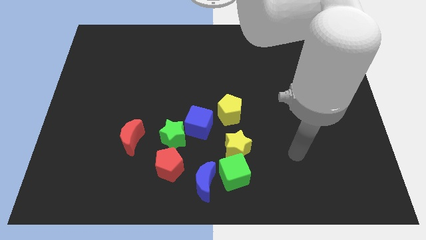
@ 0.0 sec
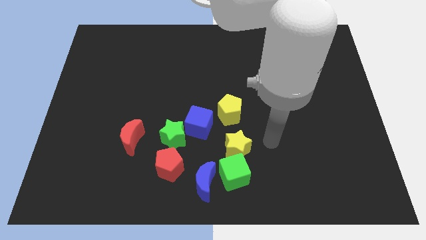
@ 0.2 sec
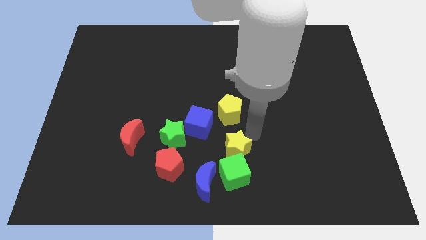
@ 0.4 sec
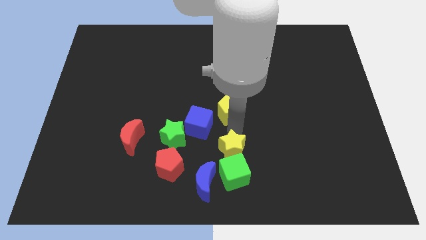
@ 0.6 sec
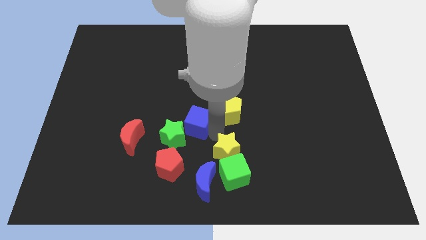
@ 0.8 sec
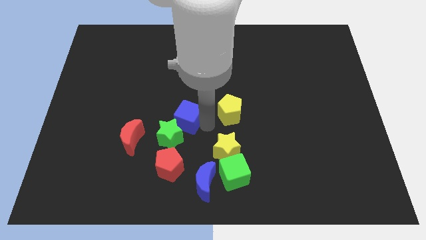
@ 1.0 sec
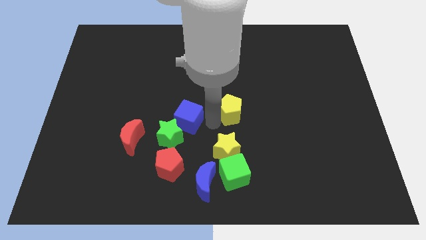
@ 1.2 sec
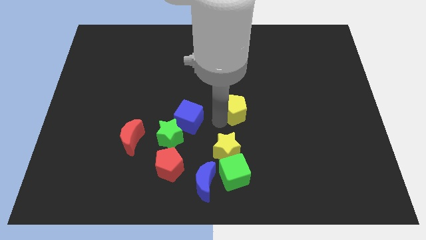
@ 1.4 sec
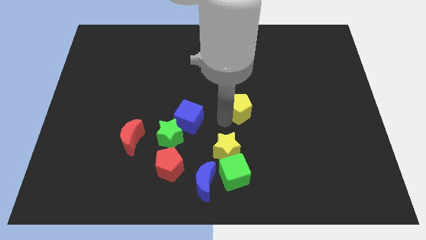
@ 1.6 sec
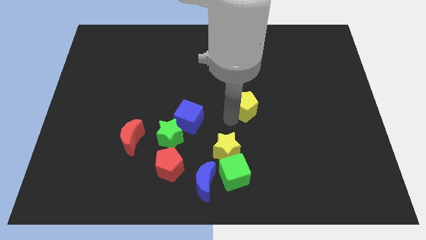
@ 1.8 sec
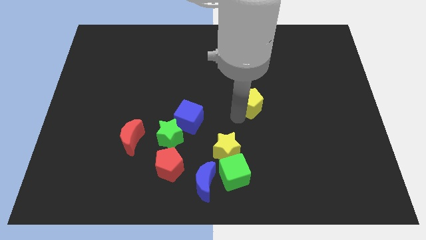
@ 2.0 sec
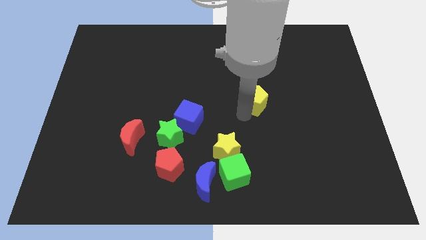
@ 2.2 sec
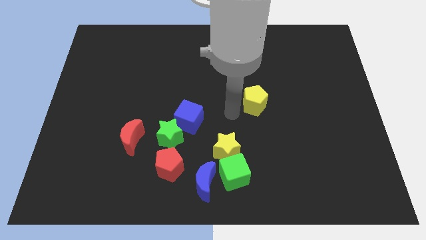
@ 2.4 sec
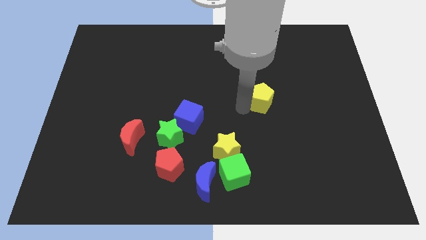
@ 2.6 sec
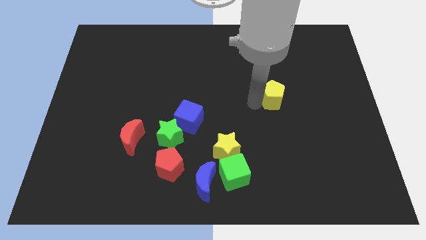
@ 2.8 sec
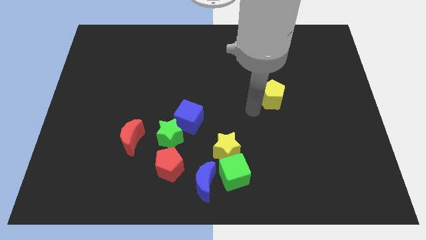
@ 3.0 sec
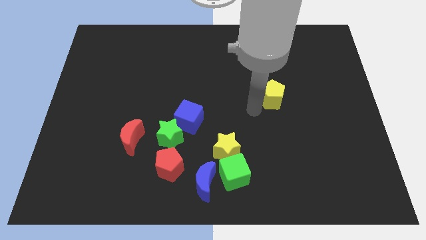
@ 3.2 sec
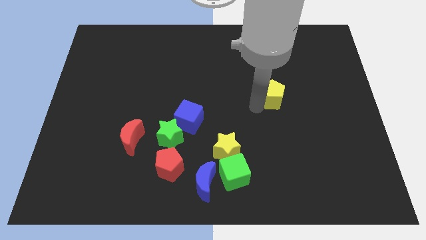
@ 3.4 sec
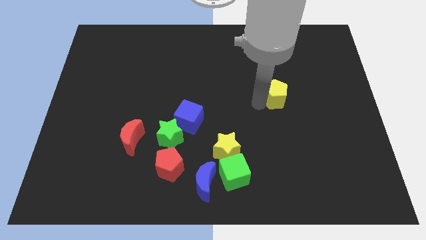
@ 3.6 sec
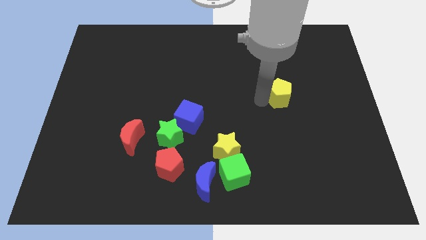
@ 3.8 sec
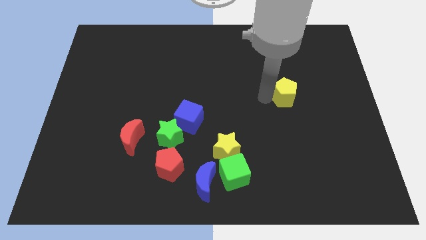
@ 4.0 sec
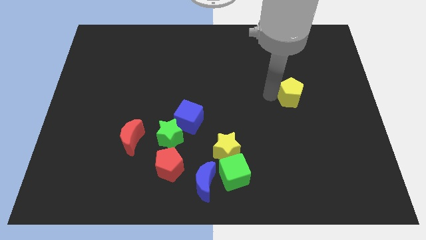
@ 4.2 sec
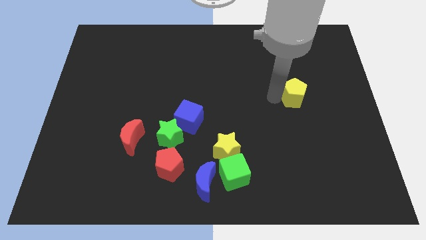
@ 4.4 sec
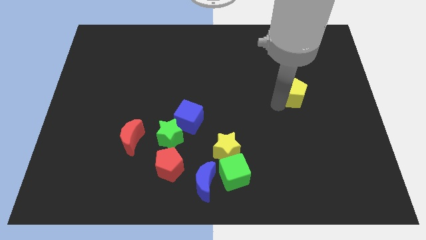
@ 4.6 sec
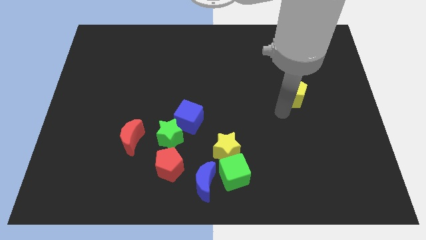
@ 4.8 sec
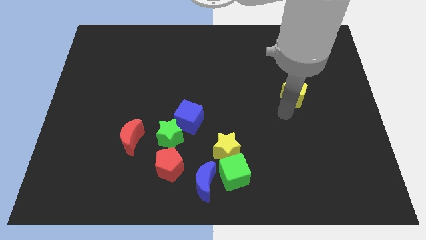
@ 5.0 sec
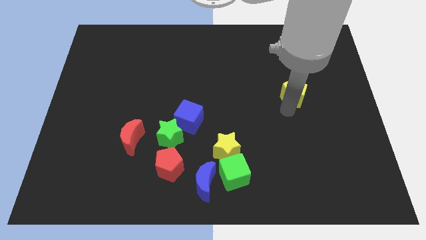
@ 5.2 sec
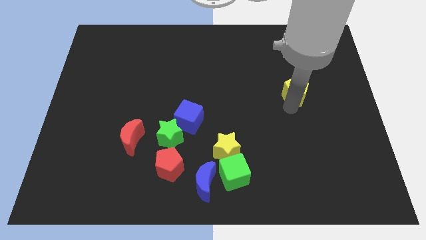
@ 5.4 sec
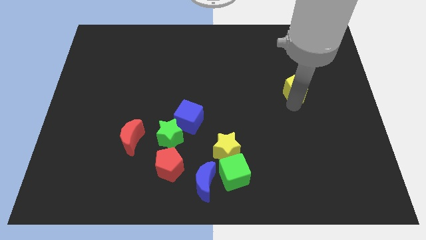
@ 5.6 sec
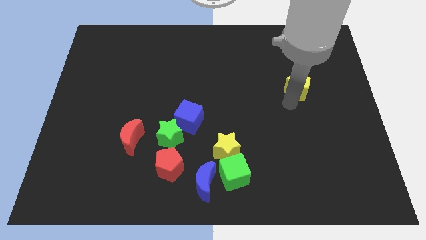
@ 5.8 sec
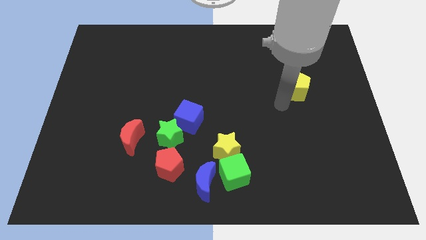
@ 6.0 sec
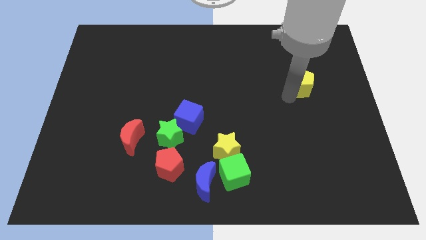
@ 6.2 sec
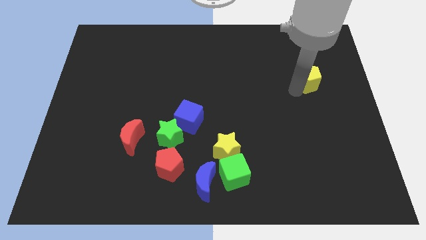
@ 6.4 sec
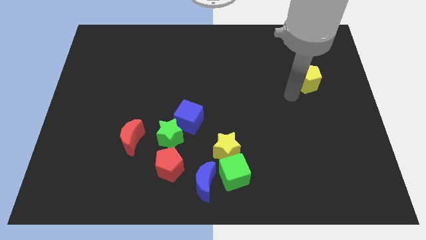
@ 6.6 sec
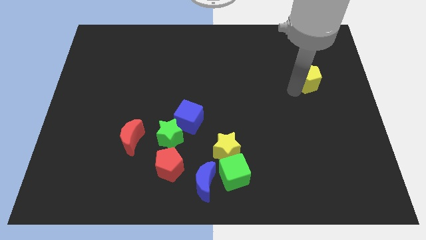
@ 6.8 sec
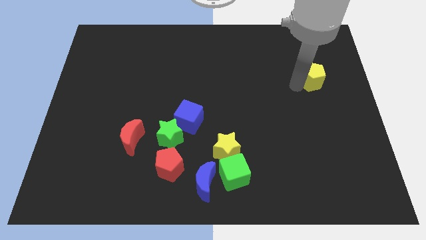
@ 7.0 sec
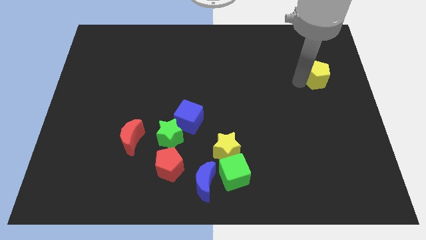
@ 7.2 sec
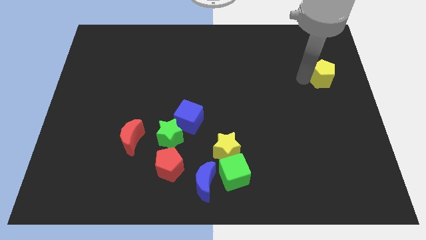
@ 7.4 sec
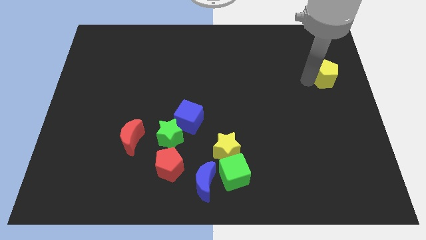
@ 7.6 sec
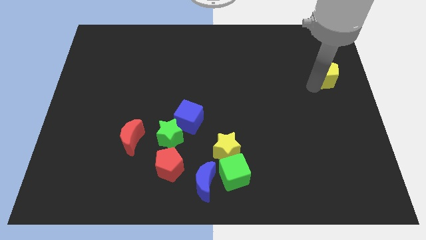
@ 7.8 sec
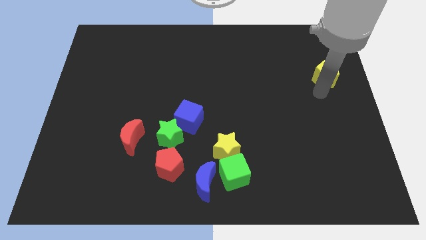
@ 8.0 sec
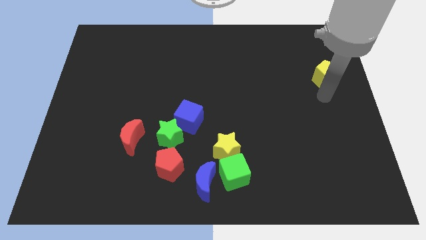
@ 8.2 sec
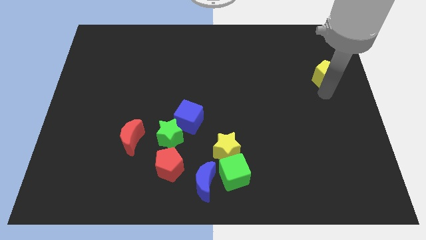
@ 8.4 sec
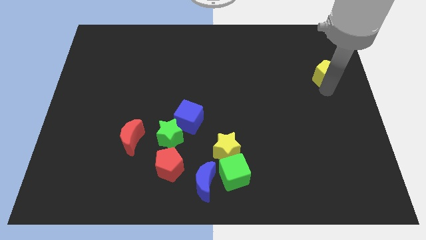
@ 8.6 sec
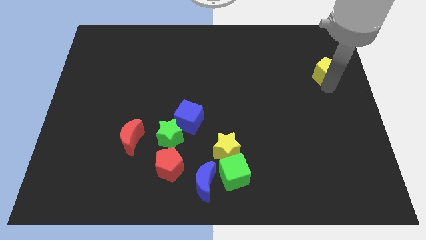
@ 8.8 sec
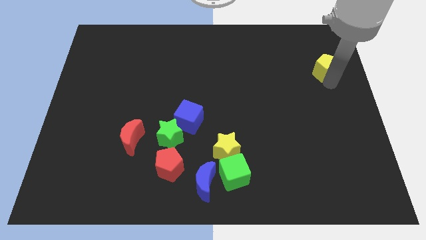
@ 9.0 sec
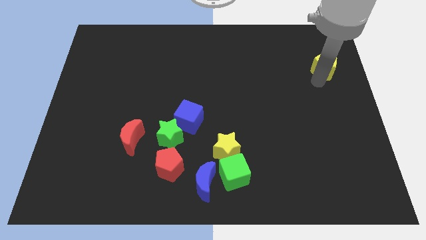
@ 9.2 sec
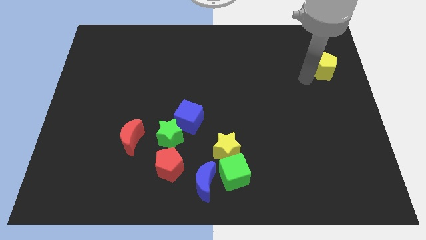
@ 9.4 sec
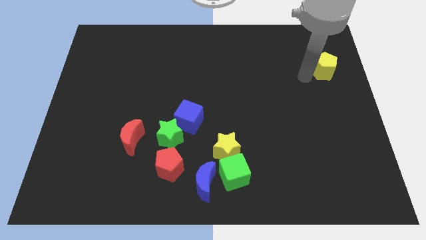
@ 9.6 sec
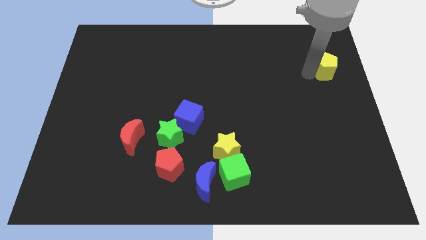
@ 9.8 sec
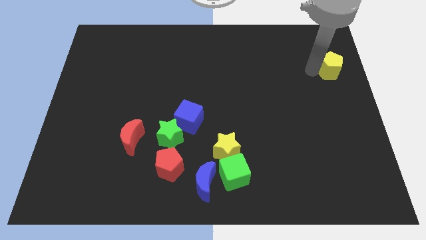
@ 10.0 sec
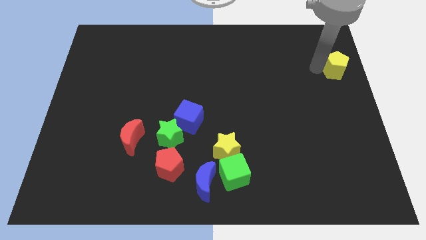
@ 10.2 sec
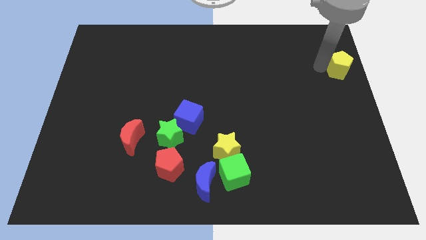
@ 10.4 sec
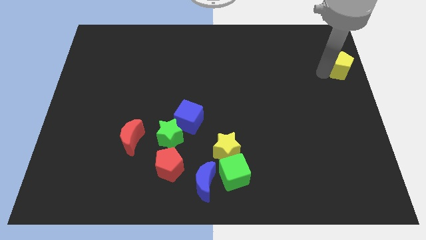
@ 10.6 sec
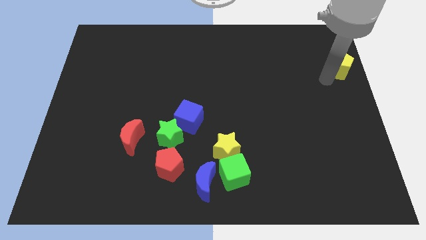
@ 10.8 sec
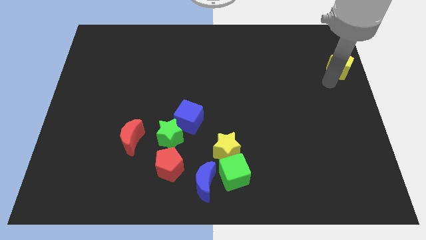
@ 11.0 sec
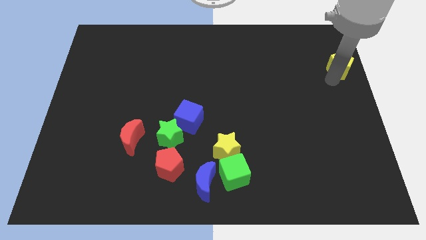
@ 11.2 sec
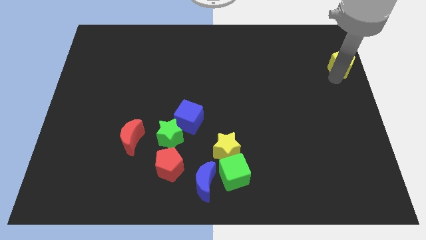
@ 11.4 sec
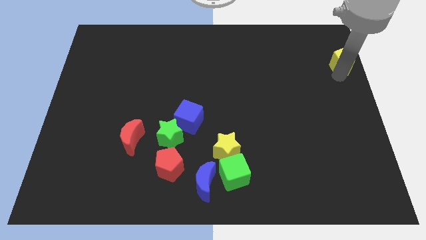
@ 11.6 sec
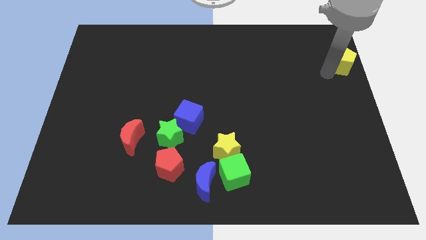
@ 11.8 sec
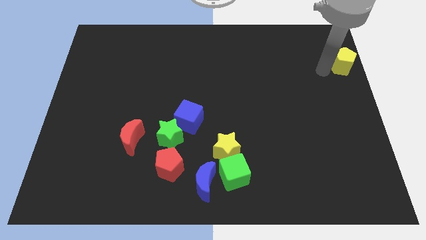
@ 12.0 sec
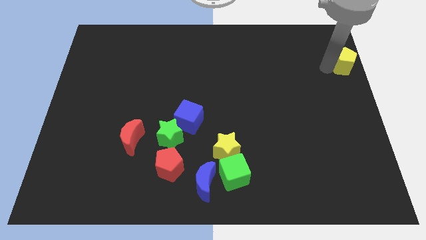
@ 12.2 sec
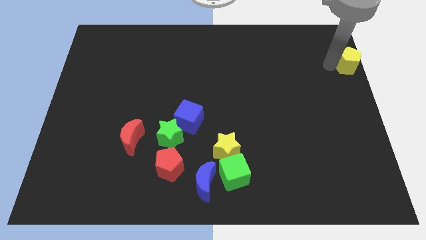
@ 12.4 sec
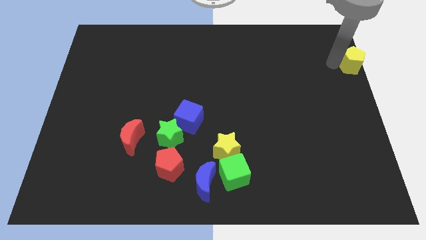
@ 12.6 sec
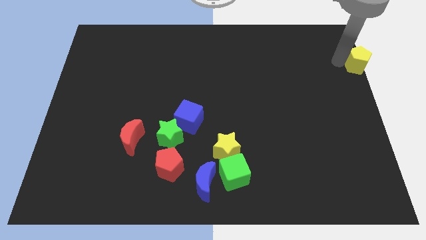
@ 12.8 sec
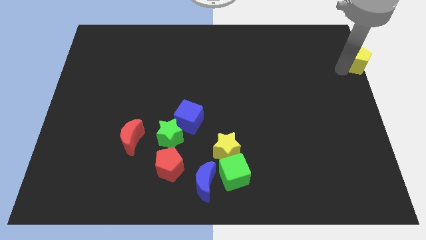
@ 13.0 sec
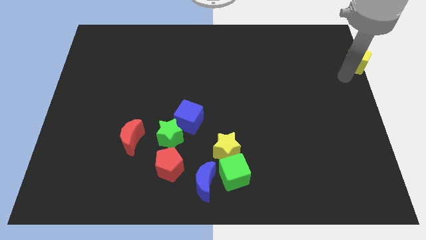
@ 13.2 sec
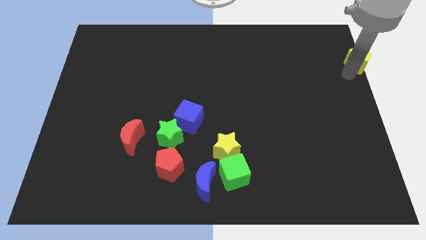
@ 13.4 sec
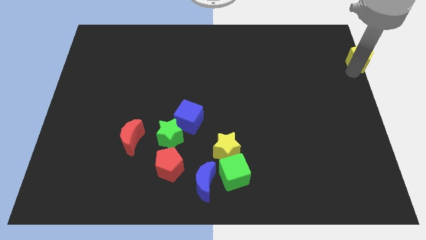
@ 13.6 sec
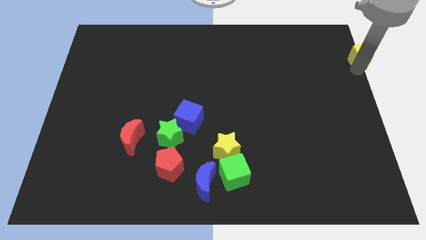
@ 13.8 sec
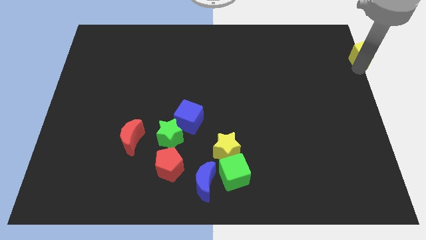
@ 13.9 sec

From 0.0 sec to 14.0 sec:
push the yellow pentagon to the upper right corner
